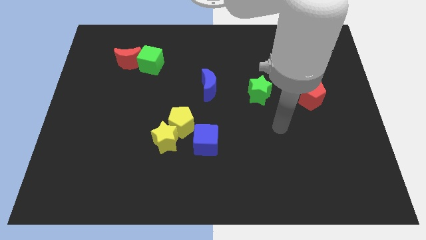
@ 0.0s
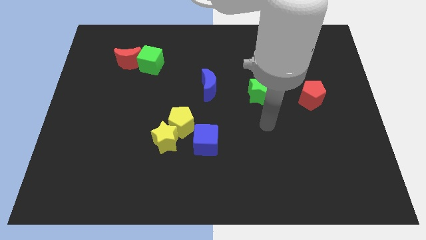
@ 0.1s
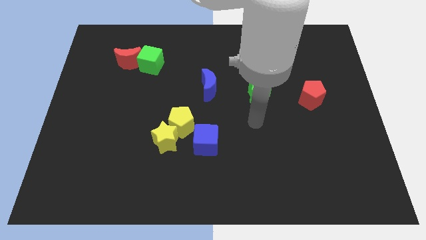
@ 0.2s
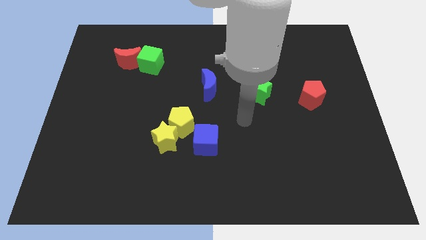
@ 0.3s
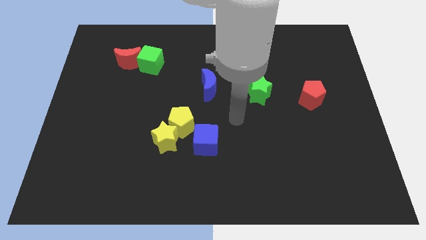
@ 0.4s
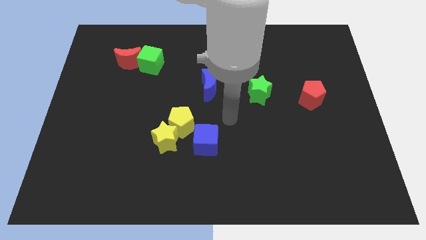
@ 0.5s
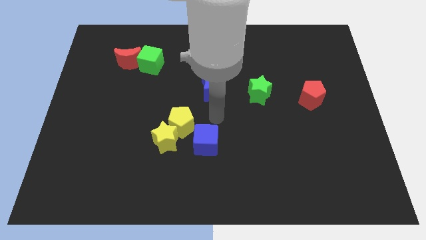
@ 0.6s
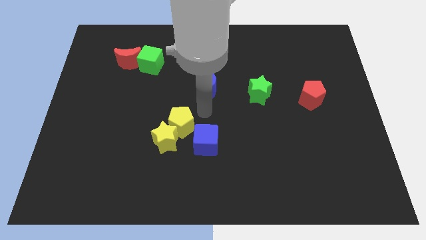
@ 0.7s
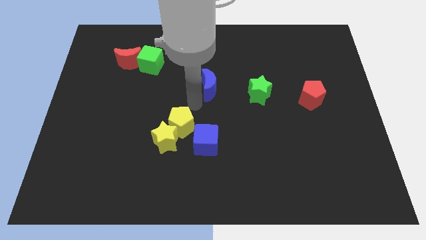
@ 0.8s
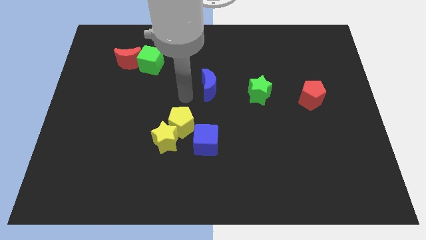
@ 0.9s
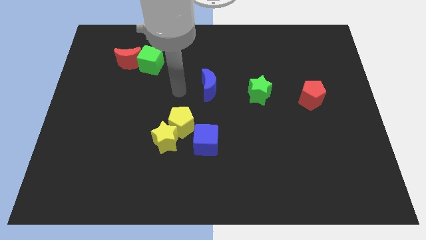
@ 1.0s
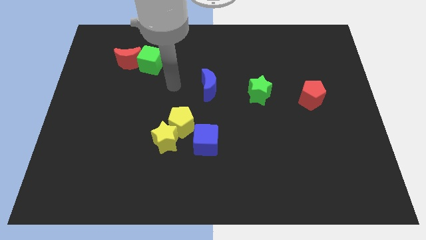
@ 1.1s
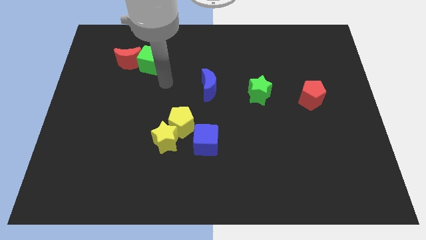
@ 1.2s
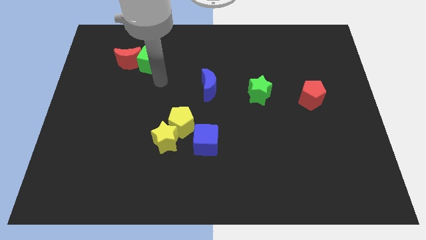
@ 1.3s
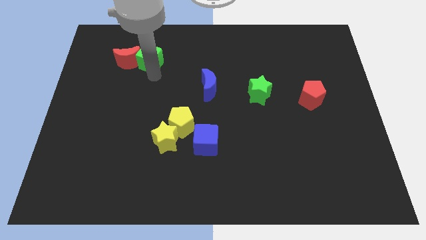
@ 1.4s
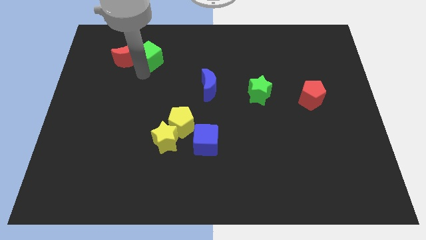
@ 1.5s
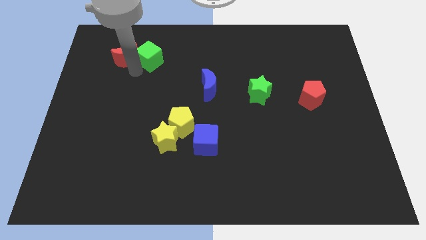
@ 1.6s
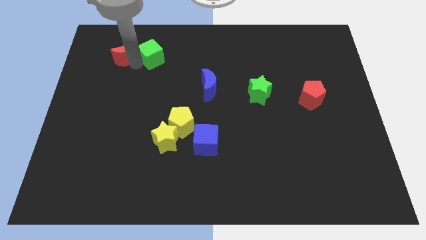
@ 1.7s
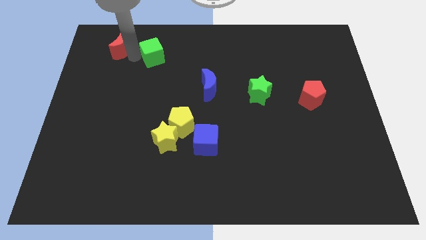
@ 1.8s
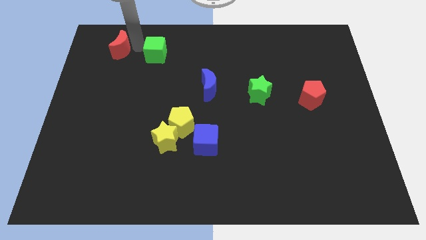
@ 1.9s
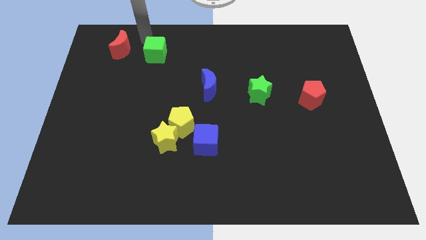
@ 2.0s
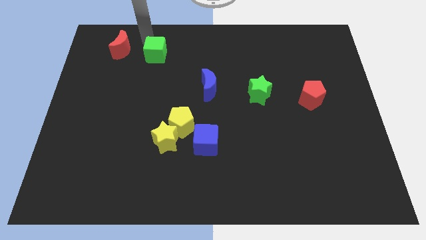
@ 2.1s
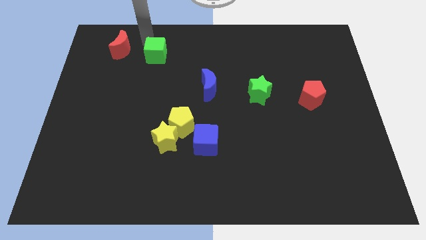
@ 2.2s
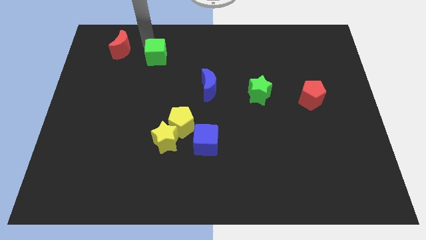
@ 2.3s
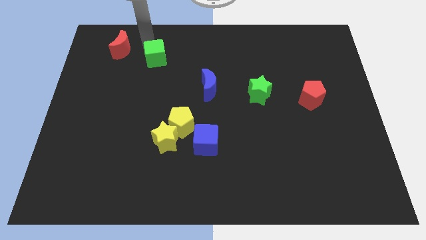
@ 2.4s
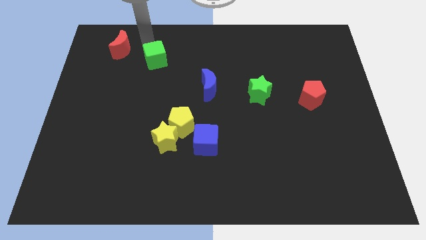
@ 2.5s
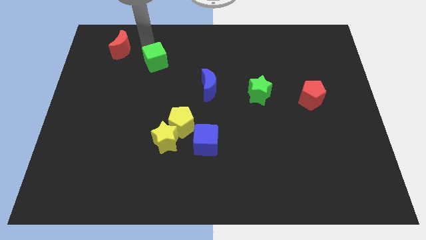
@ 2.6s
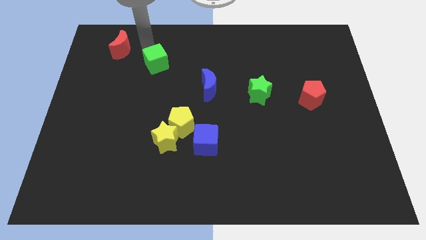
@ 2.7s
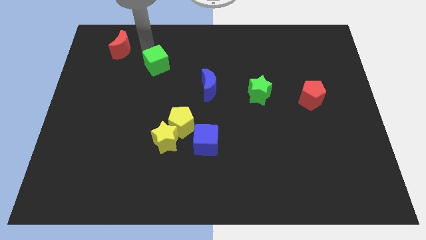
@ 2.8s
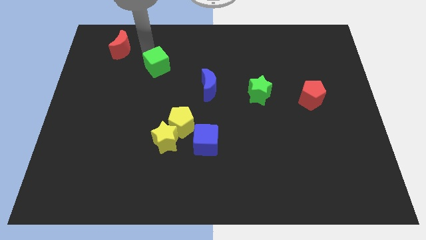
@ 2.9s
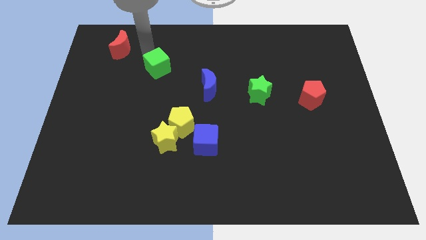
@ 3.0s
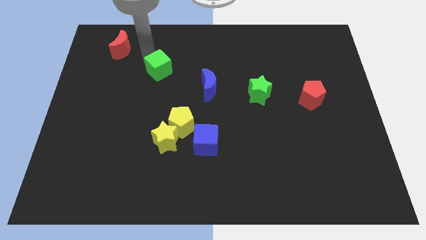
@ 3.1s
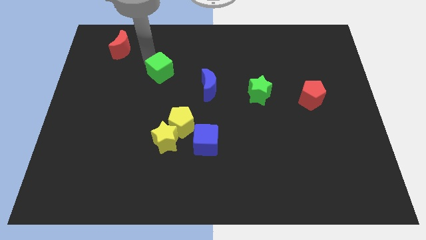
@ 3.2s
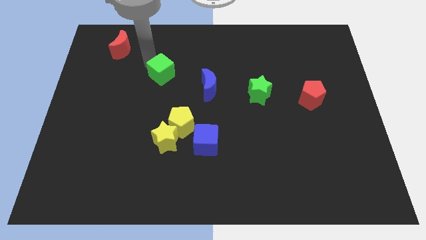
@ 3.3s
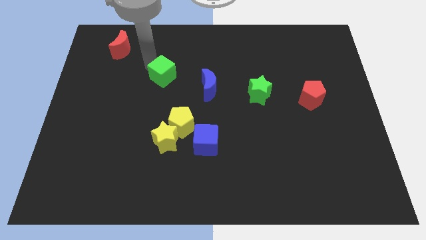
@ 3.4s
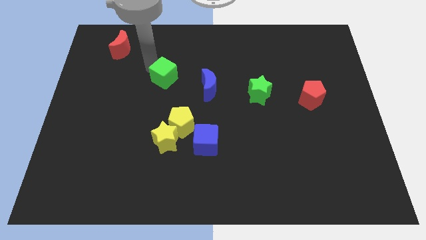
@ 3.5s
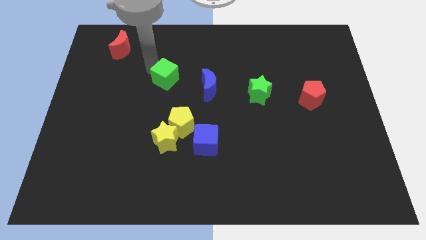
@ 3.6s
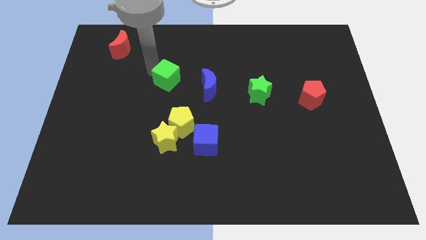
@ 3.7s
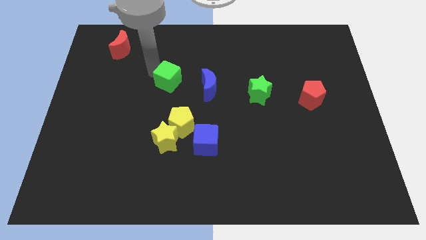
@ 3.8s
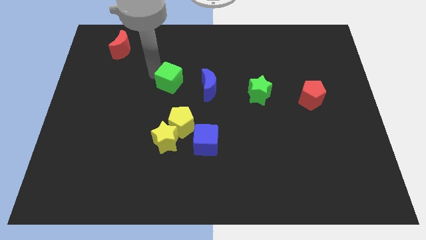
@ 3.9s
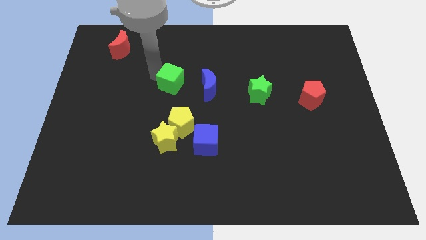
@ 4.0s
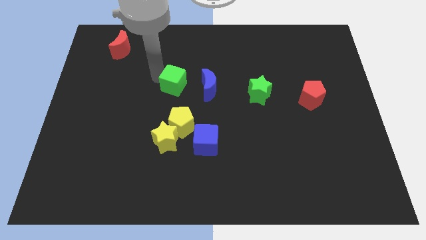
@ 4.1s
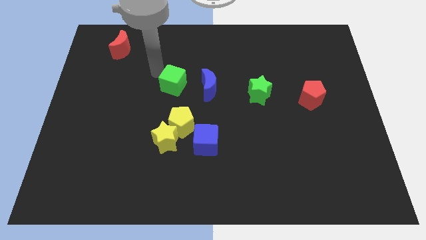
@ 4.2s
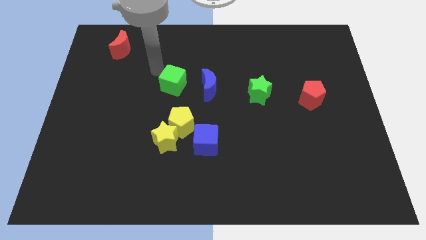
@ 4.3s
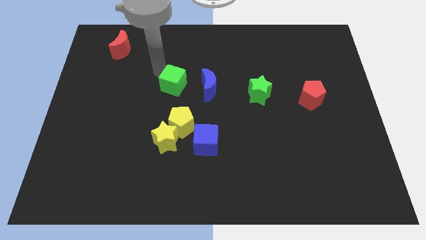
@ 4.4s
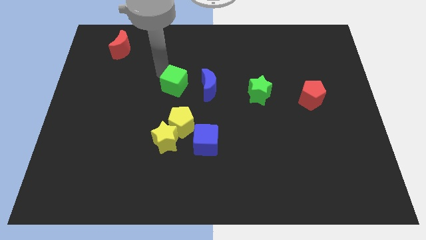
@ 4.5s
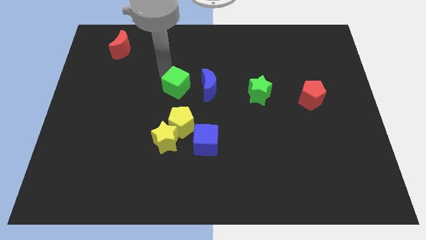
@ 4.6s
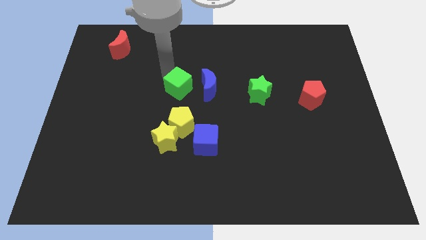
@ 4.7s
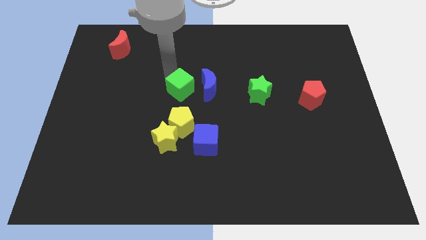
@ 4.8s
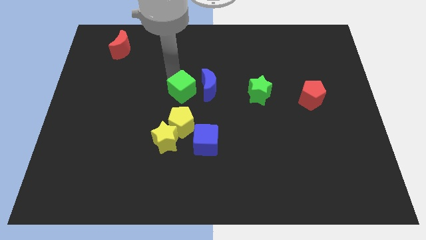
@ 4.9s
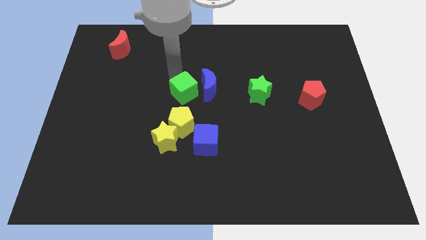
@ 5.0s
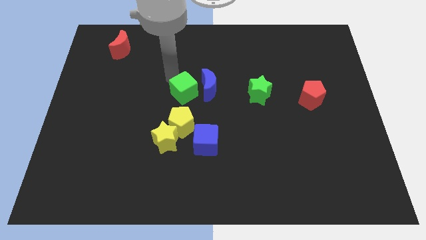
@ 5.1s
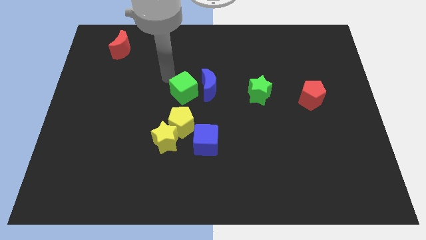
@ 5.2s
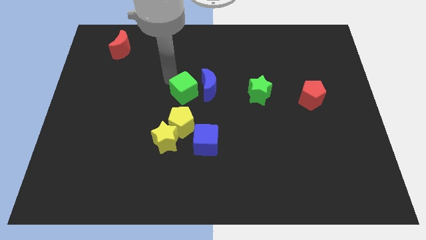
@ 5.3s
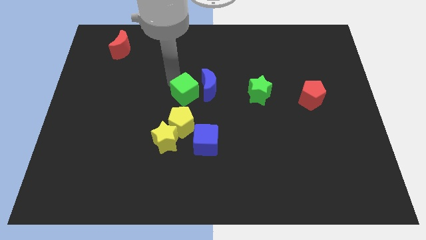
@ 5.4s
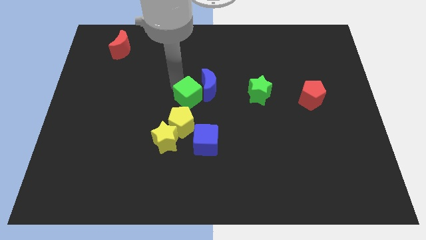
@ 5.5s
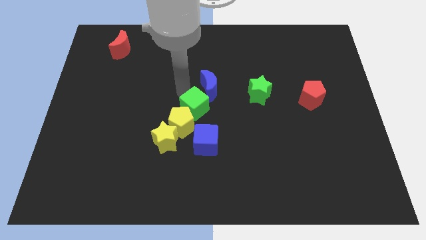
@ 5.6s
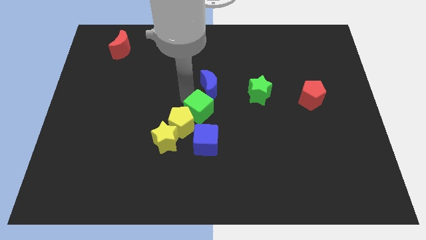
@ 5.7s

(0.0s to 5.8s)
move the green cube downwards and then right

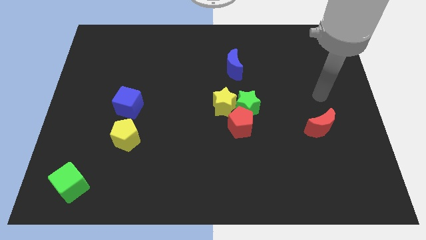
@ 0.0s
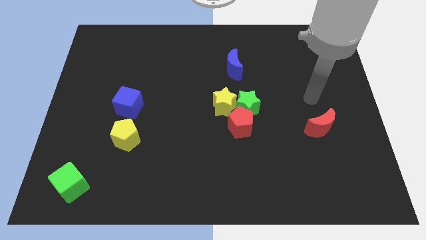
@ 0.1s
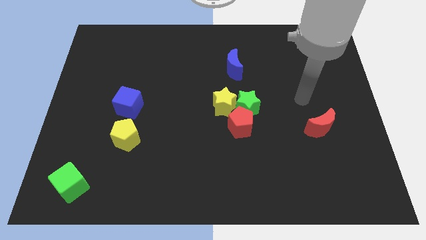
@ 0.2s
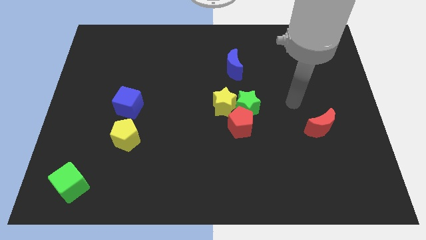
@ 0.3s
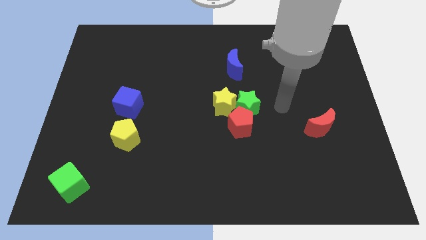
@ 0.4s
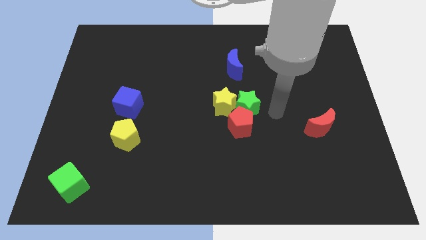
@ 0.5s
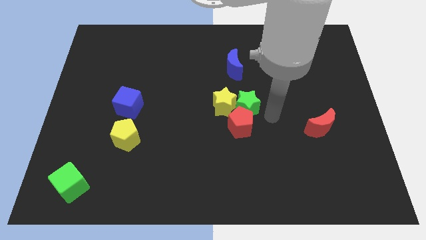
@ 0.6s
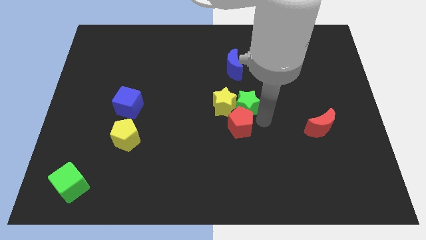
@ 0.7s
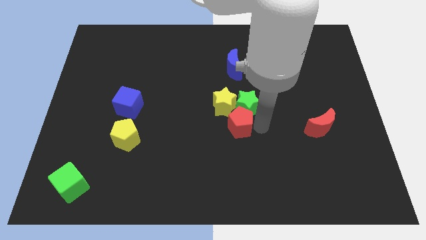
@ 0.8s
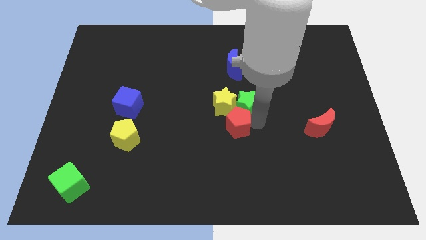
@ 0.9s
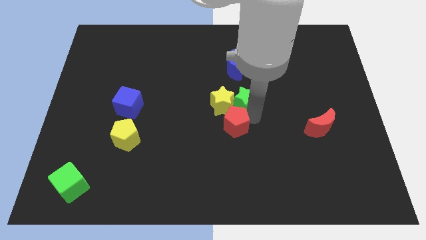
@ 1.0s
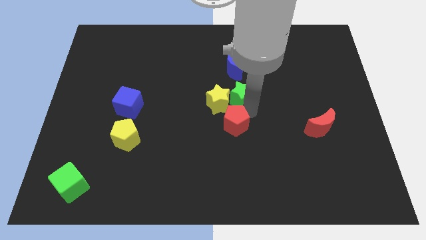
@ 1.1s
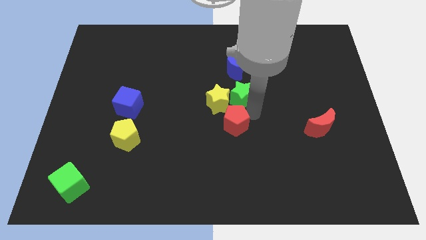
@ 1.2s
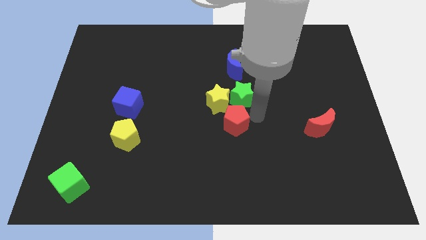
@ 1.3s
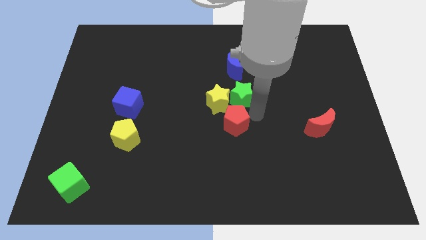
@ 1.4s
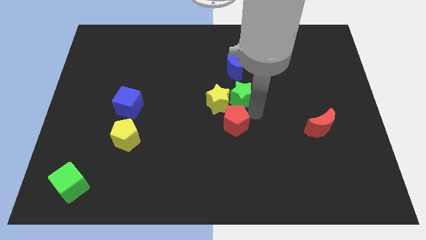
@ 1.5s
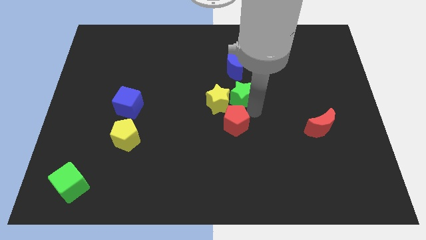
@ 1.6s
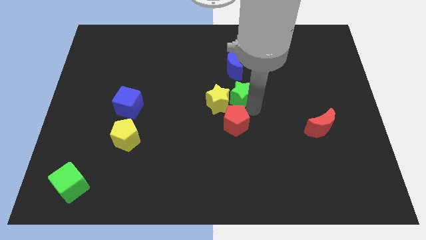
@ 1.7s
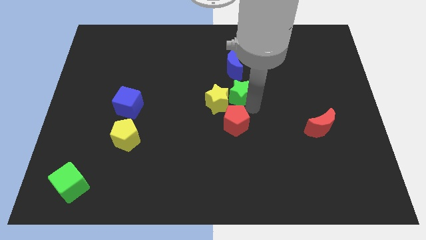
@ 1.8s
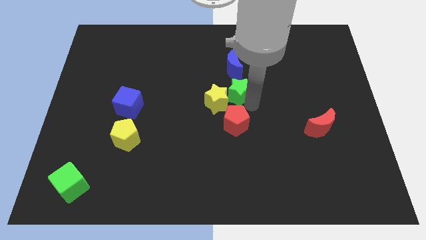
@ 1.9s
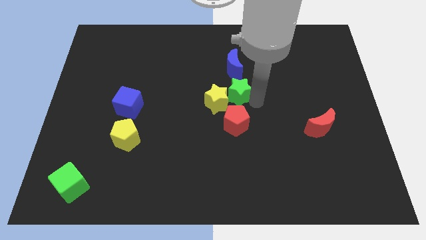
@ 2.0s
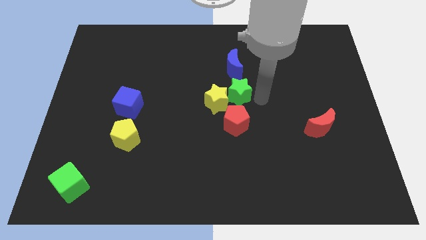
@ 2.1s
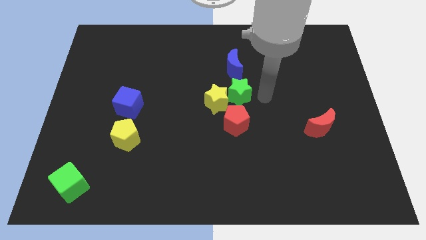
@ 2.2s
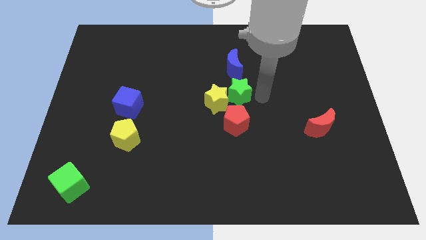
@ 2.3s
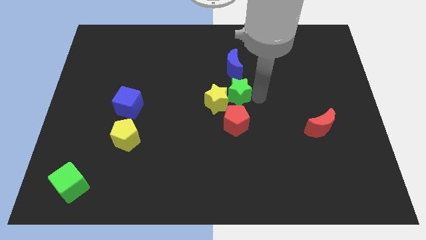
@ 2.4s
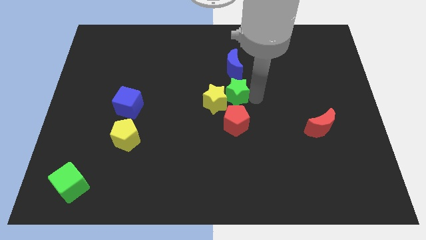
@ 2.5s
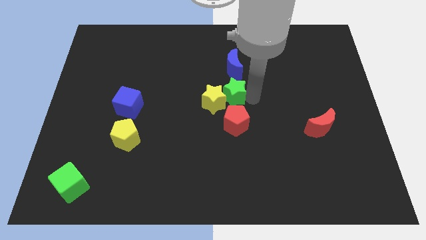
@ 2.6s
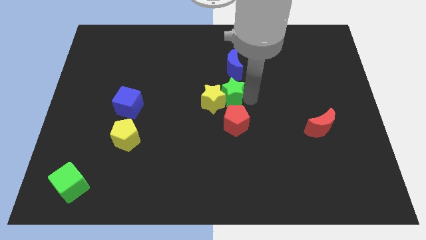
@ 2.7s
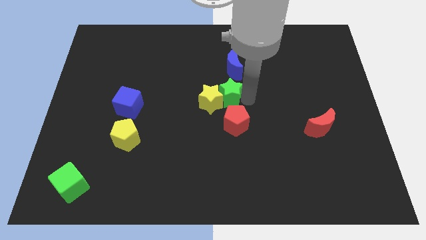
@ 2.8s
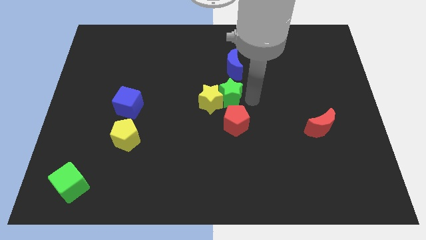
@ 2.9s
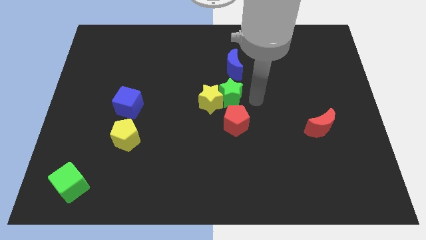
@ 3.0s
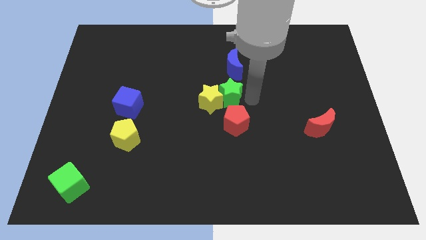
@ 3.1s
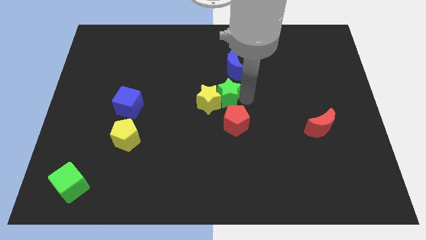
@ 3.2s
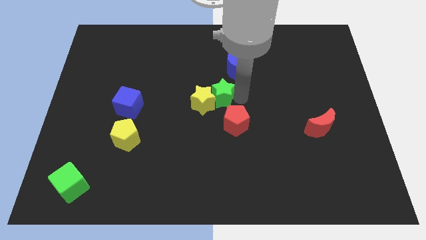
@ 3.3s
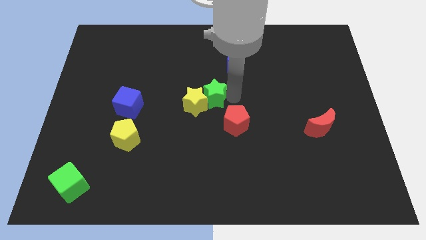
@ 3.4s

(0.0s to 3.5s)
move the green star slightly left
